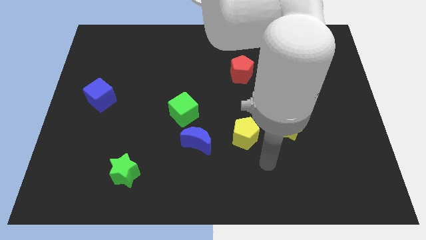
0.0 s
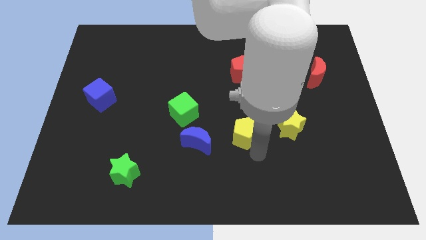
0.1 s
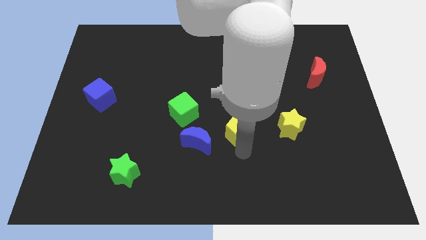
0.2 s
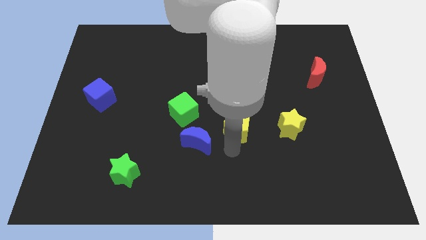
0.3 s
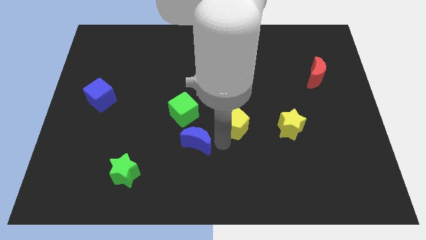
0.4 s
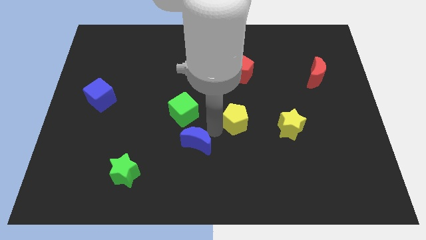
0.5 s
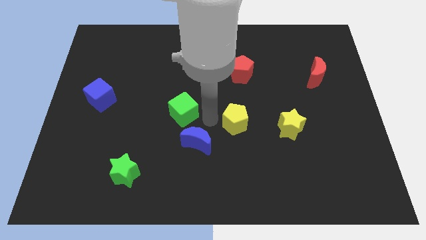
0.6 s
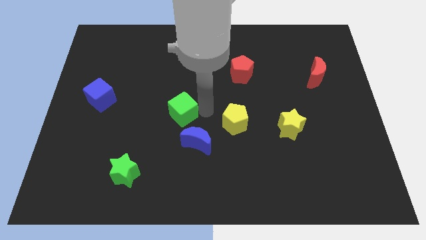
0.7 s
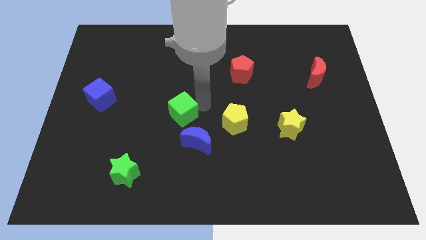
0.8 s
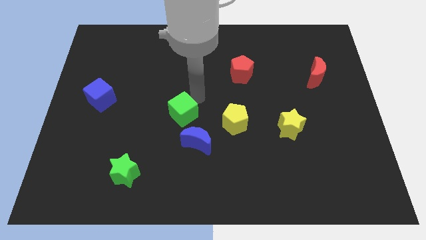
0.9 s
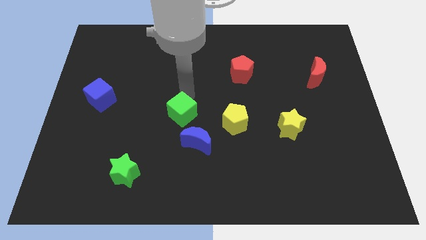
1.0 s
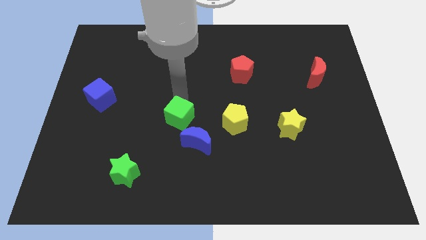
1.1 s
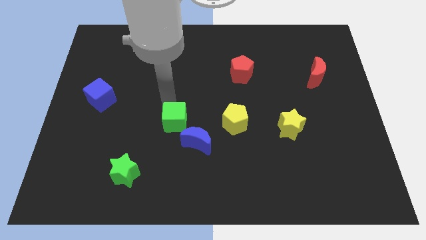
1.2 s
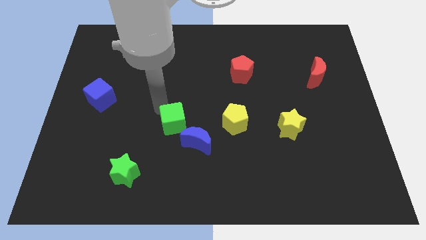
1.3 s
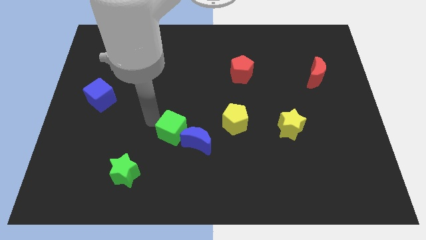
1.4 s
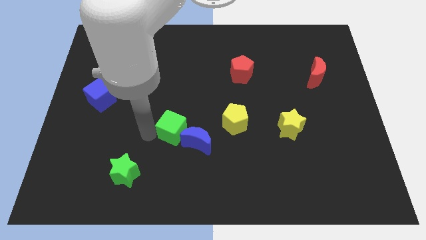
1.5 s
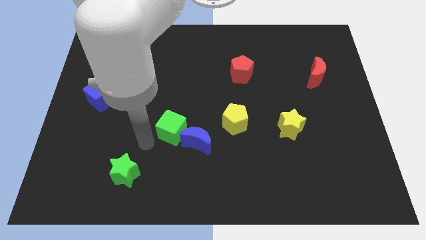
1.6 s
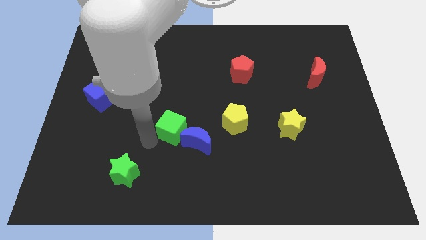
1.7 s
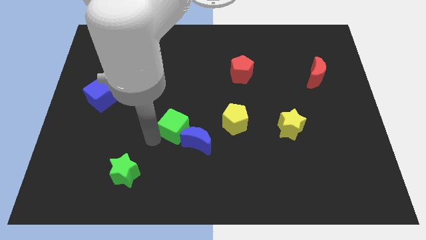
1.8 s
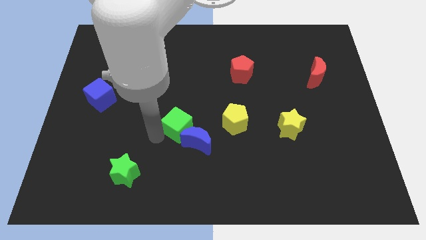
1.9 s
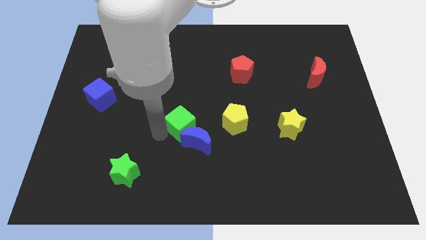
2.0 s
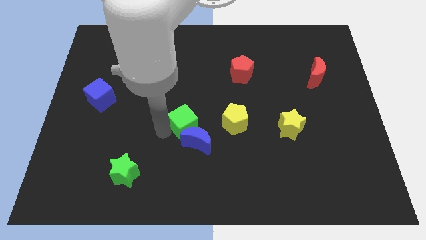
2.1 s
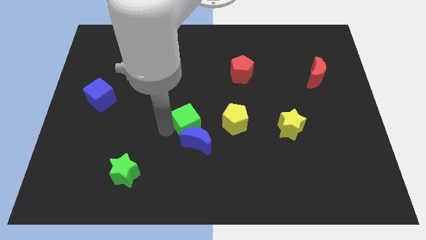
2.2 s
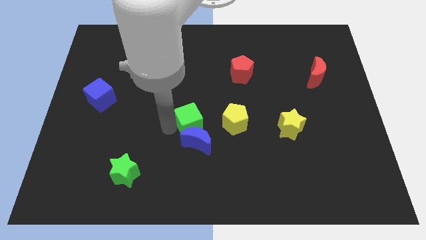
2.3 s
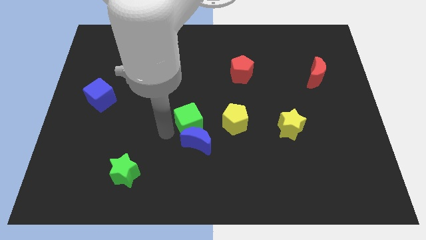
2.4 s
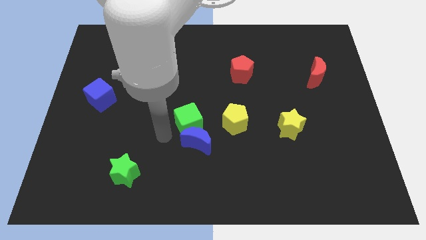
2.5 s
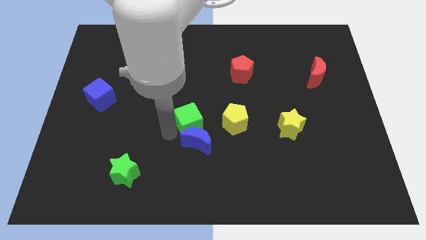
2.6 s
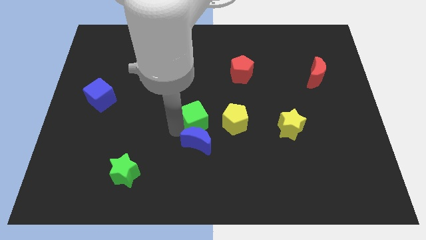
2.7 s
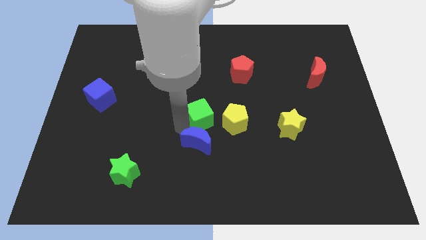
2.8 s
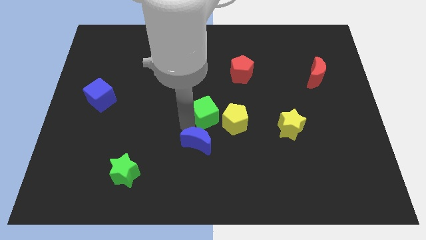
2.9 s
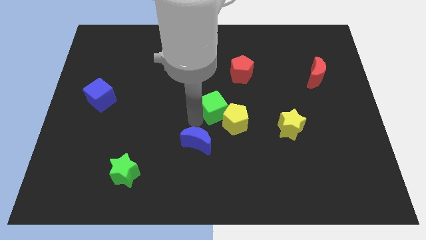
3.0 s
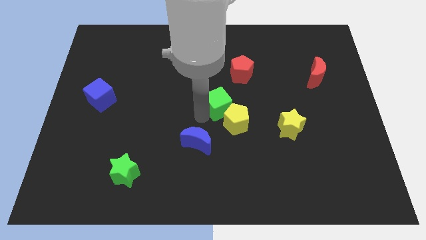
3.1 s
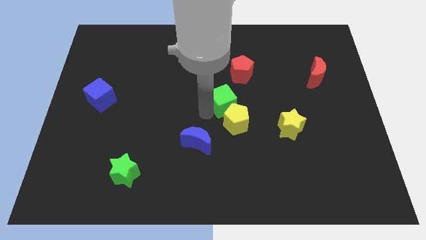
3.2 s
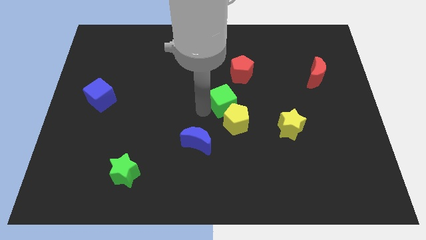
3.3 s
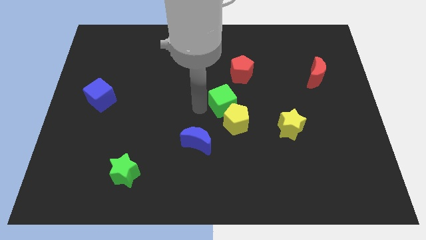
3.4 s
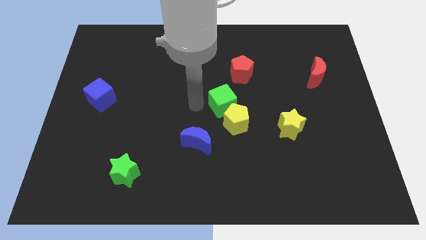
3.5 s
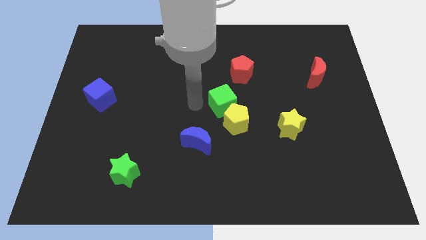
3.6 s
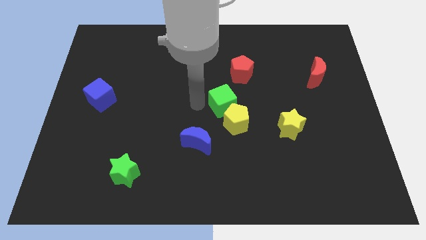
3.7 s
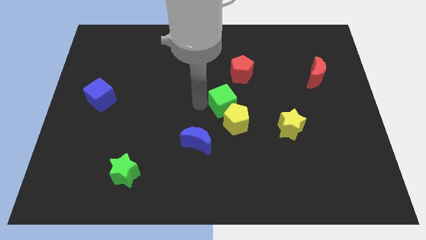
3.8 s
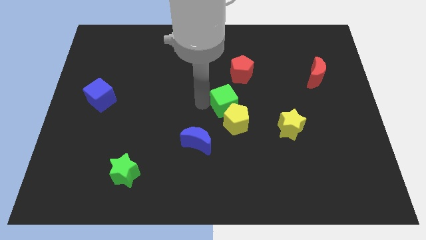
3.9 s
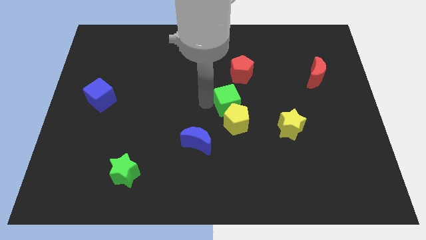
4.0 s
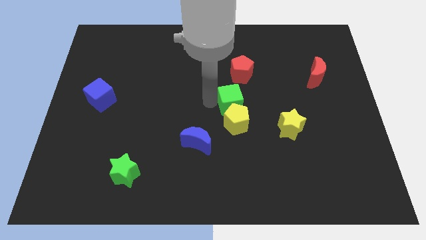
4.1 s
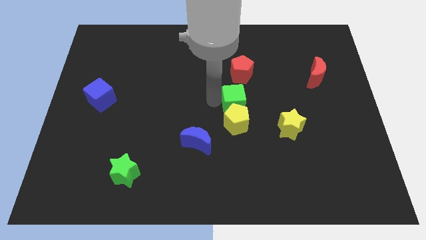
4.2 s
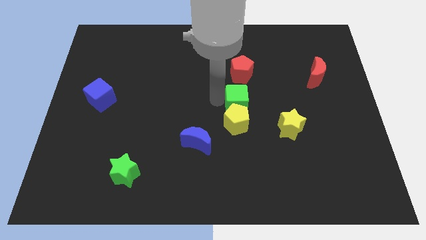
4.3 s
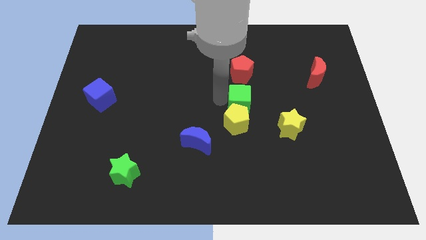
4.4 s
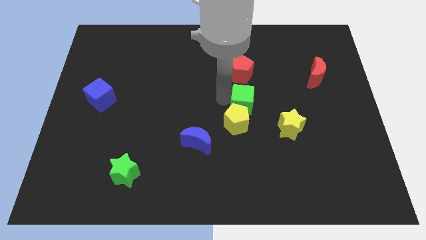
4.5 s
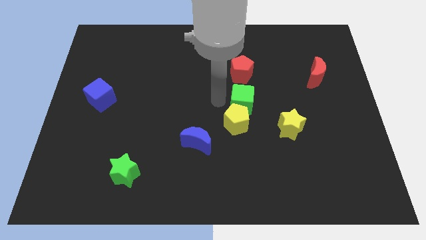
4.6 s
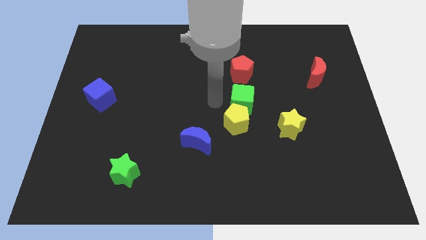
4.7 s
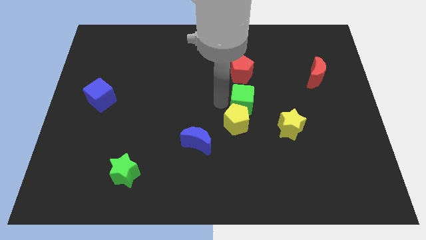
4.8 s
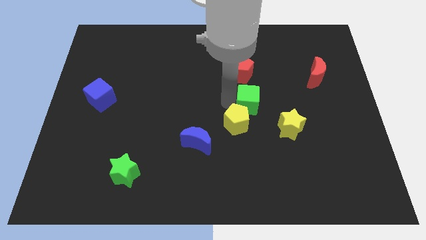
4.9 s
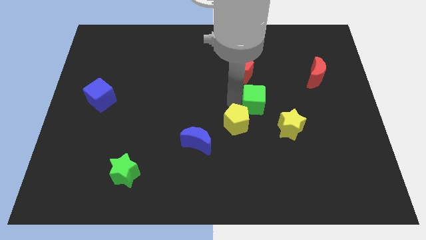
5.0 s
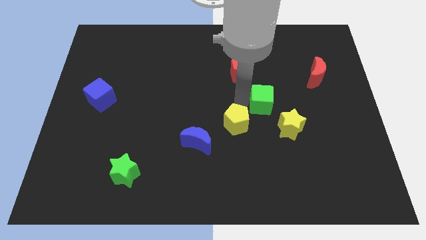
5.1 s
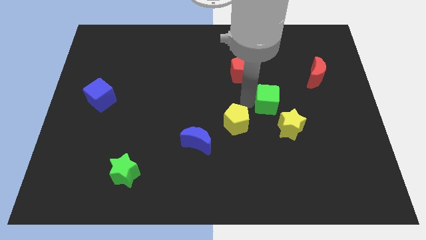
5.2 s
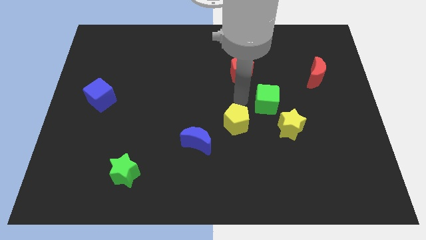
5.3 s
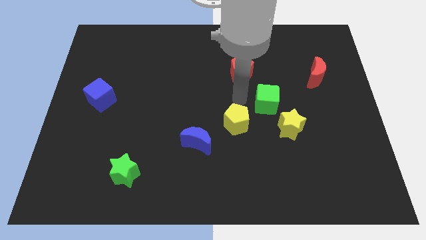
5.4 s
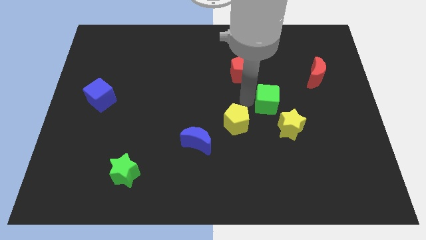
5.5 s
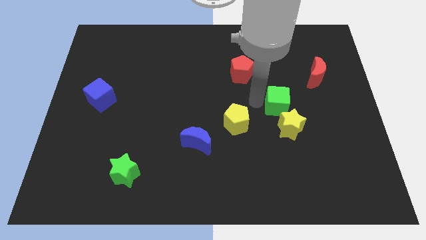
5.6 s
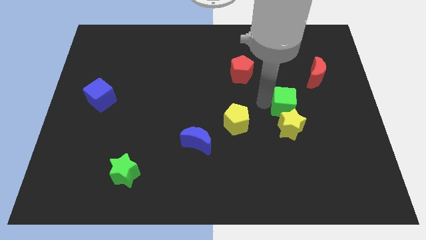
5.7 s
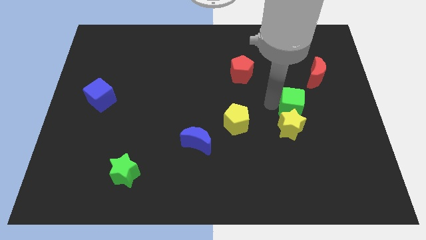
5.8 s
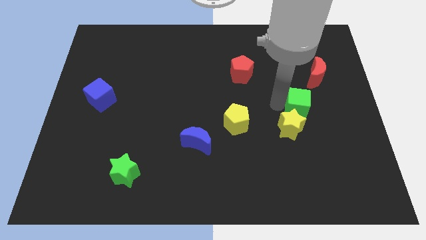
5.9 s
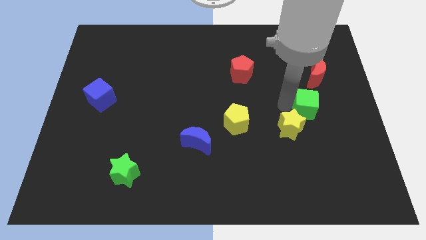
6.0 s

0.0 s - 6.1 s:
put the green cube to the bottom of the red moon

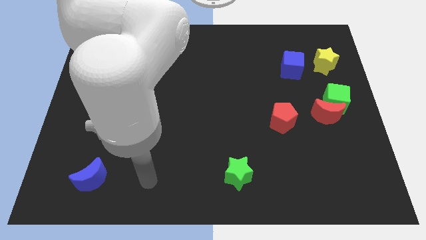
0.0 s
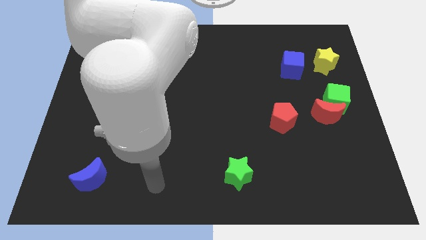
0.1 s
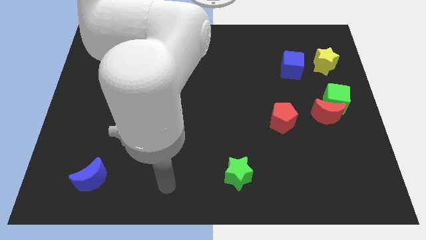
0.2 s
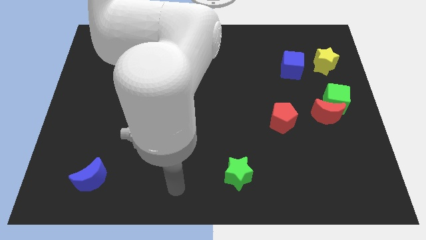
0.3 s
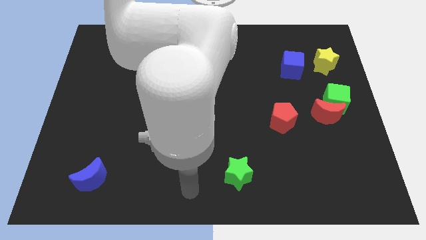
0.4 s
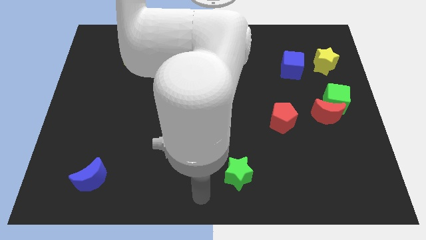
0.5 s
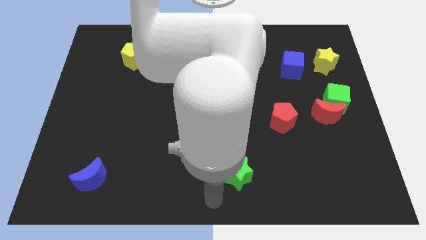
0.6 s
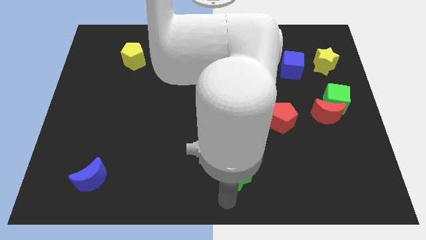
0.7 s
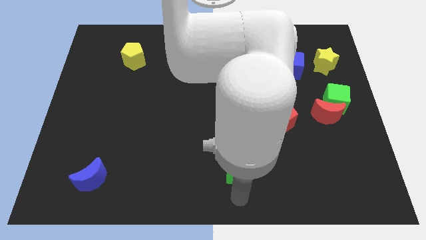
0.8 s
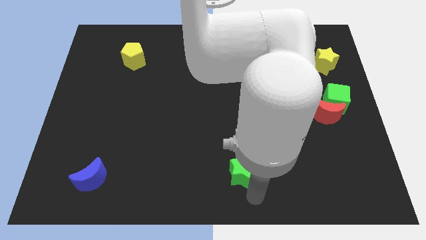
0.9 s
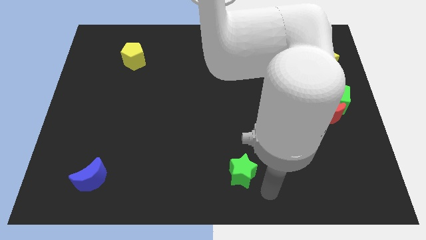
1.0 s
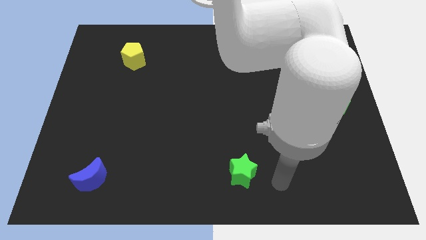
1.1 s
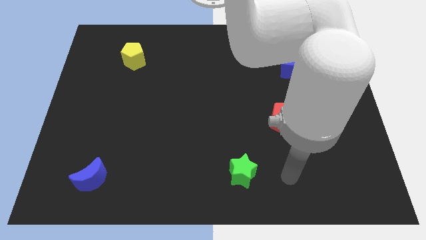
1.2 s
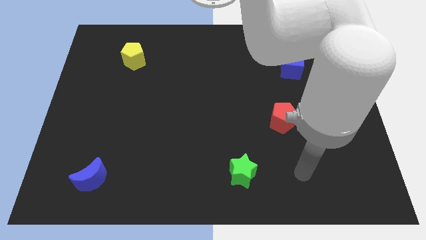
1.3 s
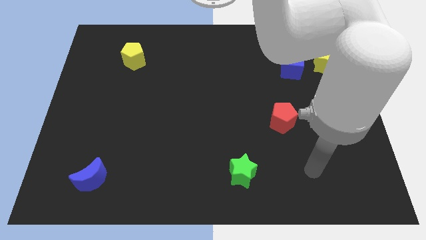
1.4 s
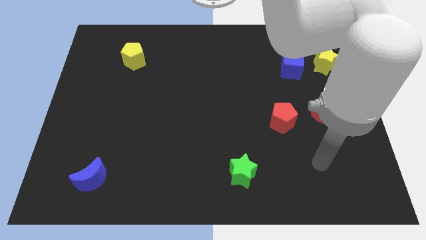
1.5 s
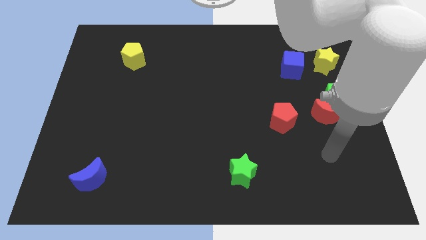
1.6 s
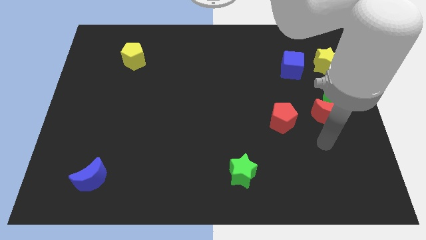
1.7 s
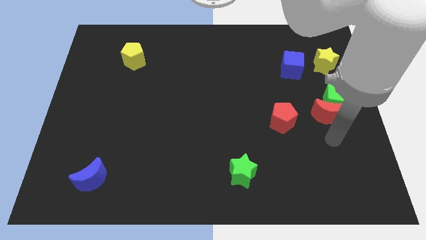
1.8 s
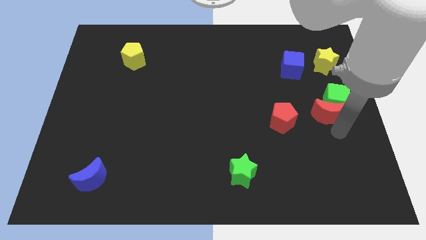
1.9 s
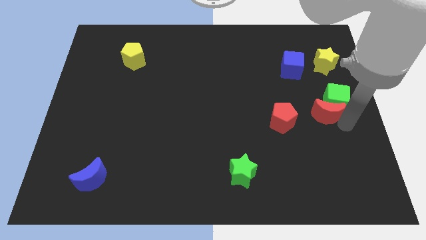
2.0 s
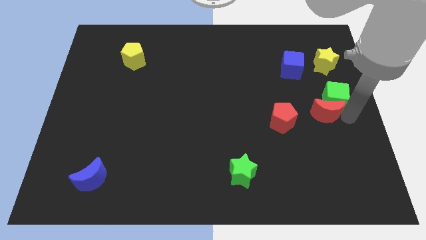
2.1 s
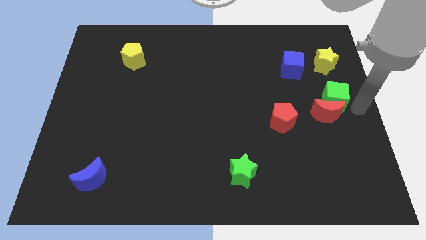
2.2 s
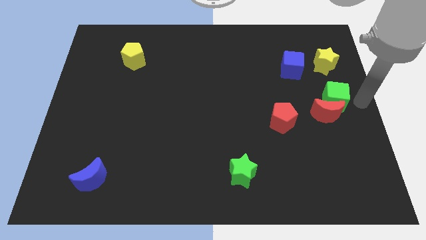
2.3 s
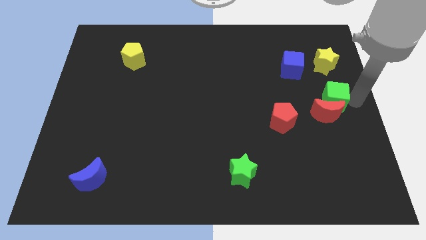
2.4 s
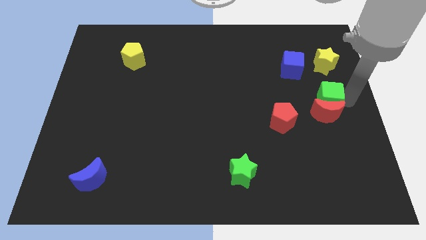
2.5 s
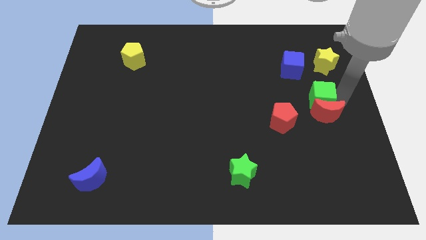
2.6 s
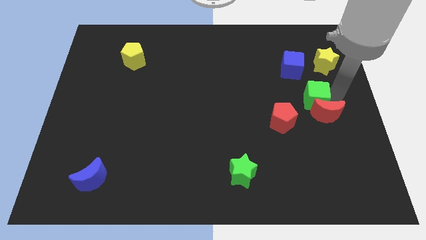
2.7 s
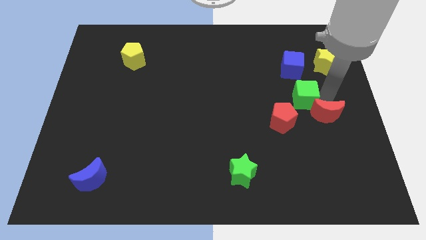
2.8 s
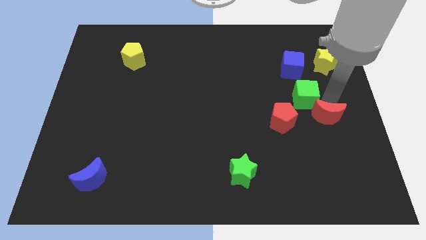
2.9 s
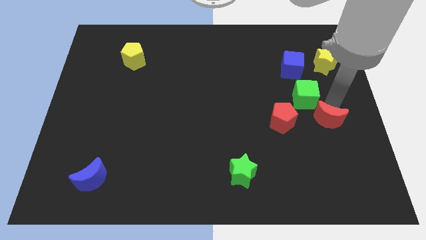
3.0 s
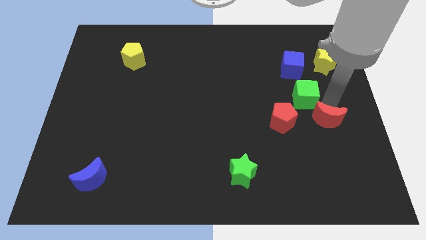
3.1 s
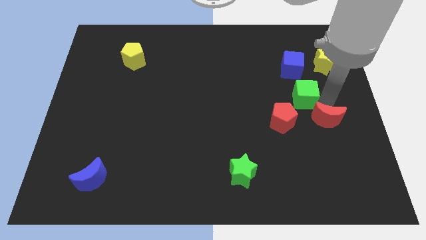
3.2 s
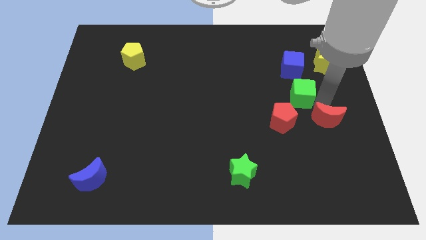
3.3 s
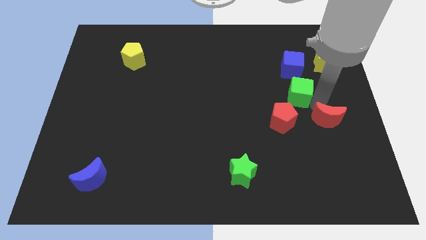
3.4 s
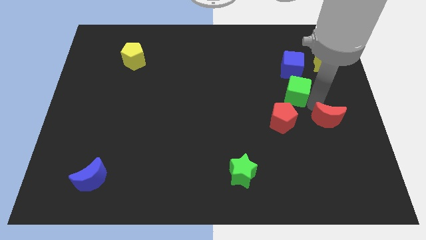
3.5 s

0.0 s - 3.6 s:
put the green cube to the top of the red pentagon
